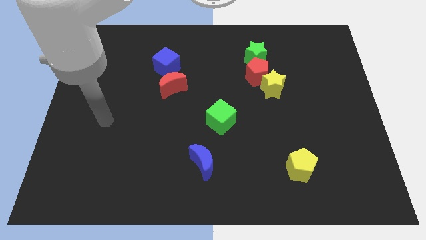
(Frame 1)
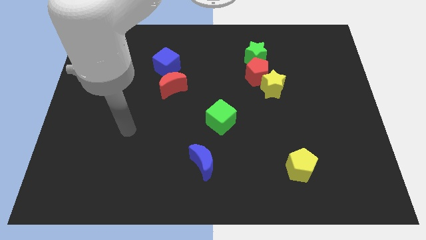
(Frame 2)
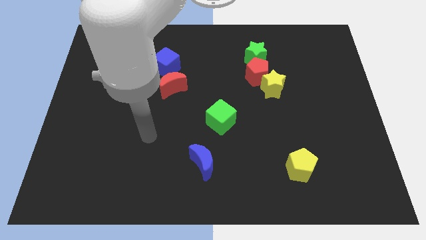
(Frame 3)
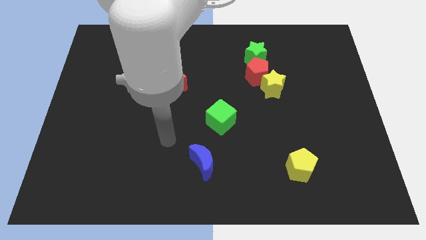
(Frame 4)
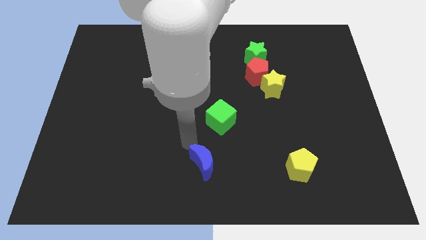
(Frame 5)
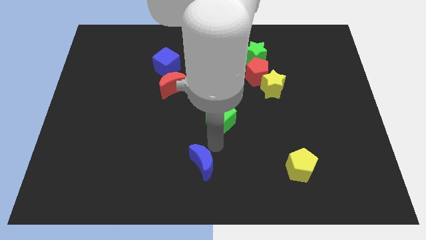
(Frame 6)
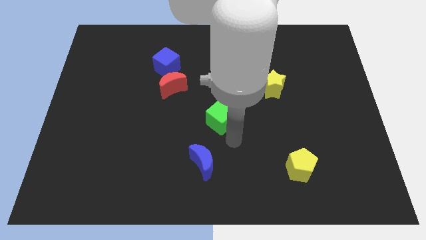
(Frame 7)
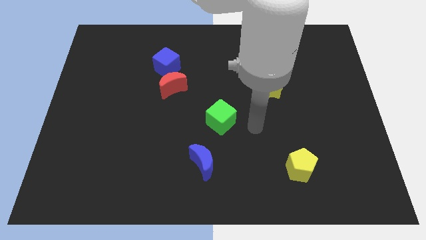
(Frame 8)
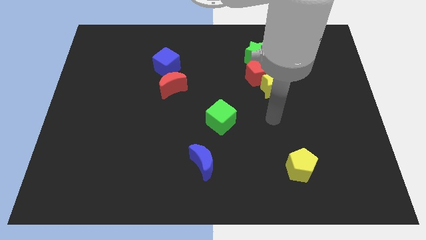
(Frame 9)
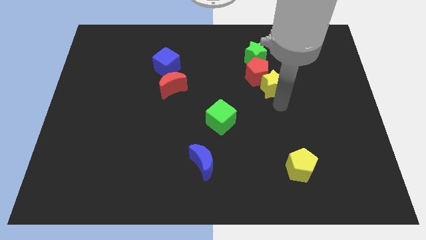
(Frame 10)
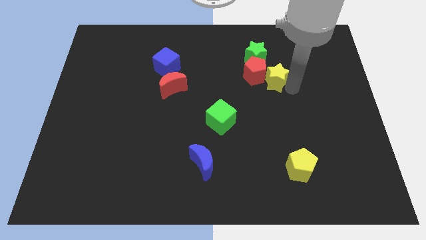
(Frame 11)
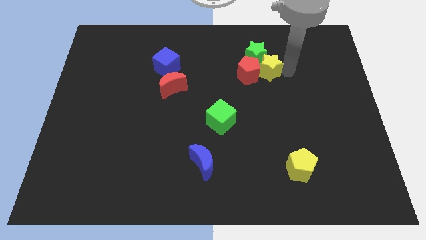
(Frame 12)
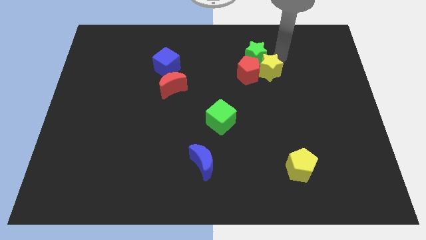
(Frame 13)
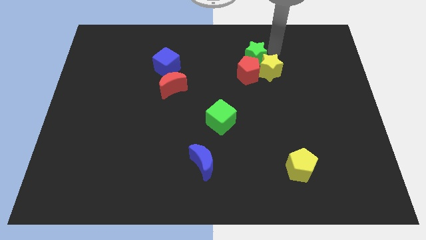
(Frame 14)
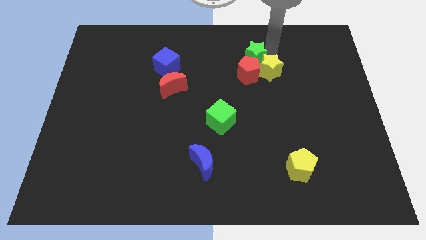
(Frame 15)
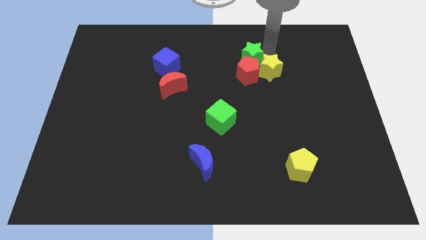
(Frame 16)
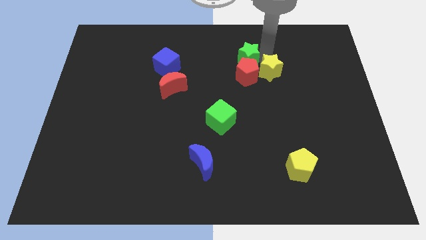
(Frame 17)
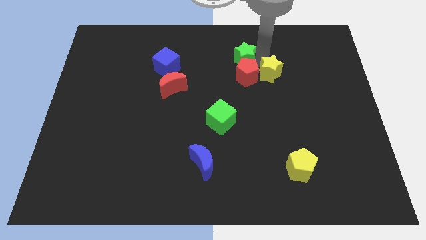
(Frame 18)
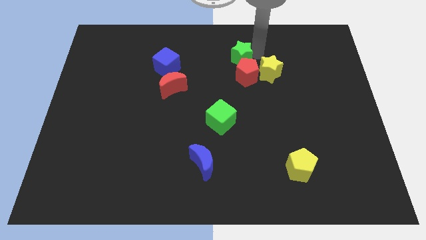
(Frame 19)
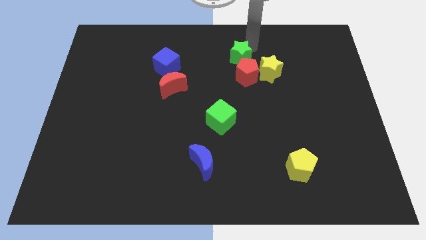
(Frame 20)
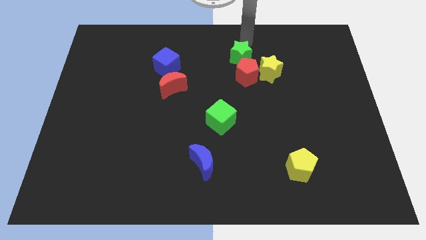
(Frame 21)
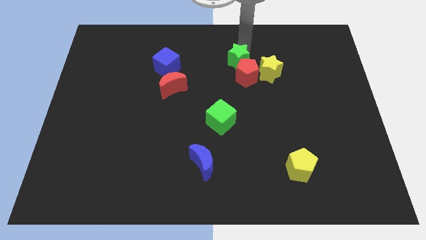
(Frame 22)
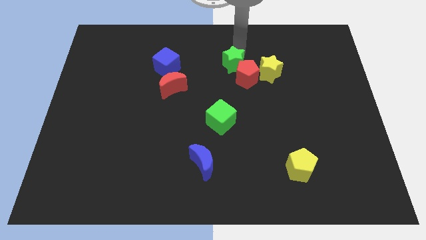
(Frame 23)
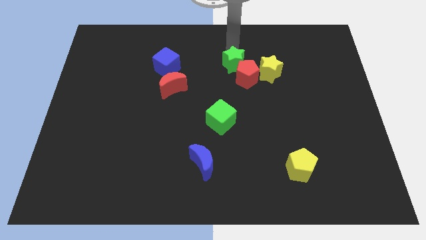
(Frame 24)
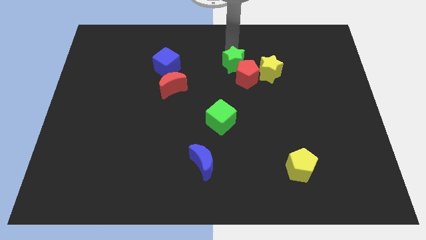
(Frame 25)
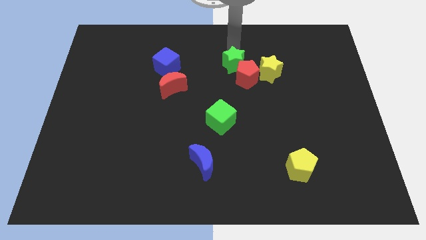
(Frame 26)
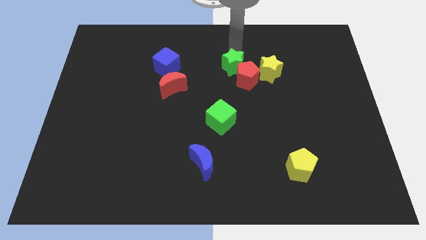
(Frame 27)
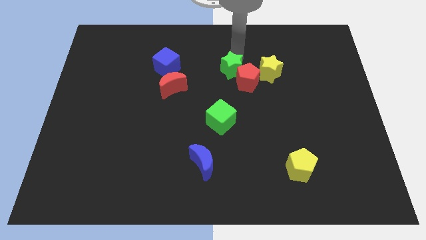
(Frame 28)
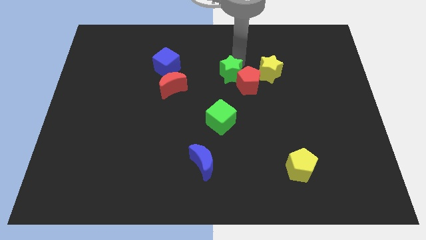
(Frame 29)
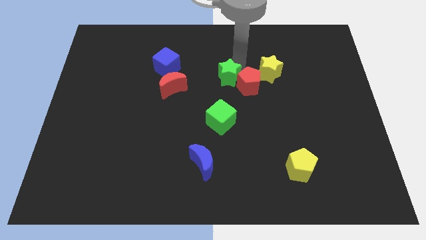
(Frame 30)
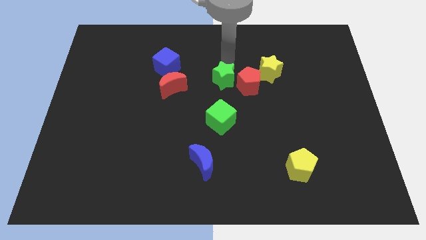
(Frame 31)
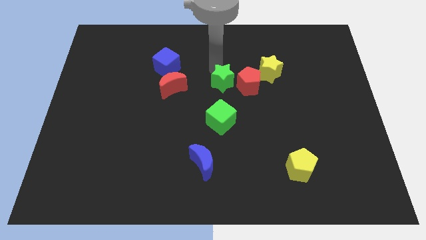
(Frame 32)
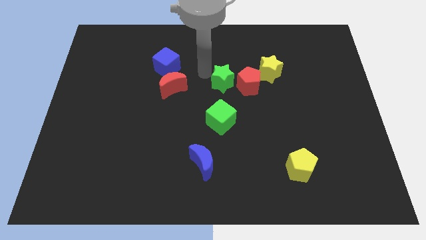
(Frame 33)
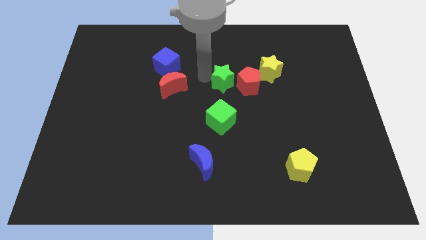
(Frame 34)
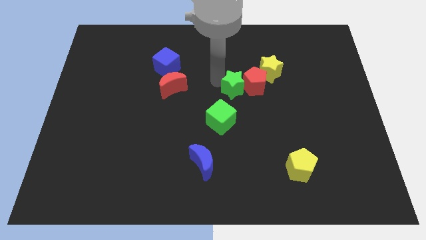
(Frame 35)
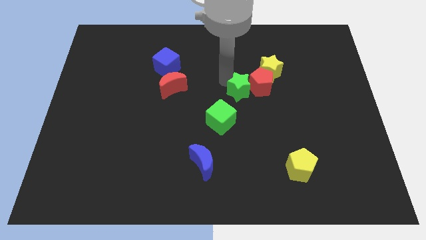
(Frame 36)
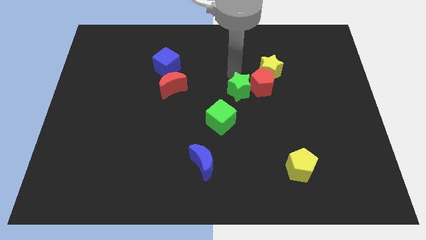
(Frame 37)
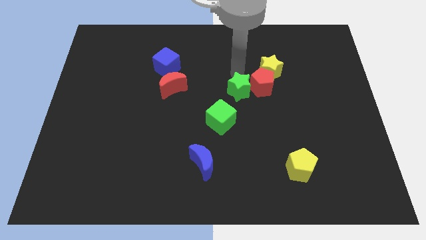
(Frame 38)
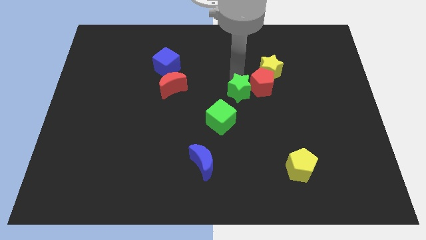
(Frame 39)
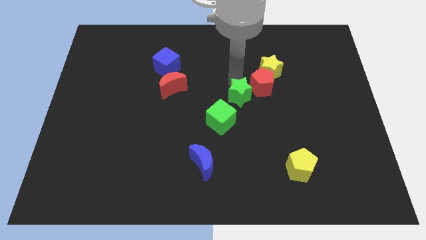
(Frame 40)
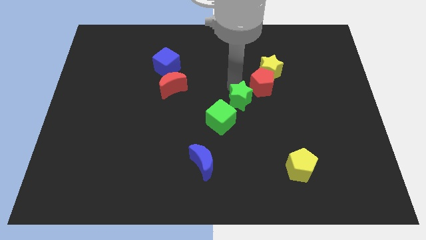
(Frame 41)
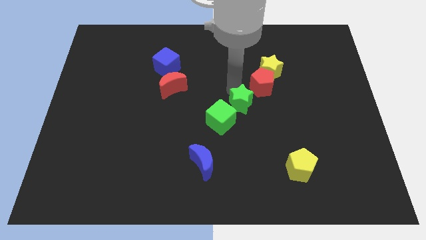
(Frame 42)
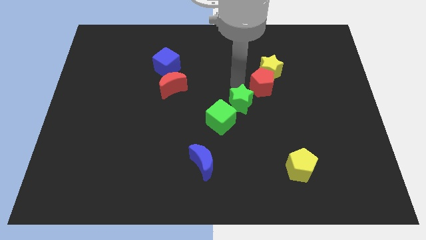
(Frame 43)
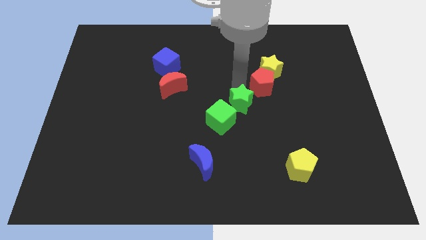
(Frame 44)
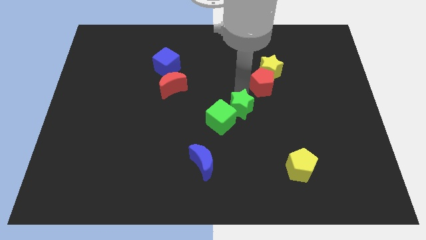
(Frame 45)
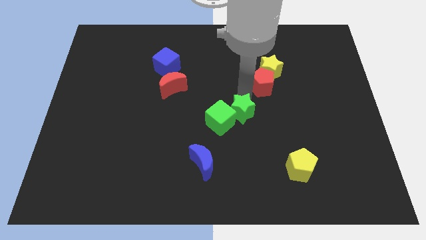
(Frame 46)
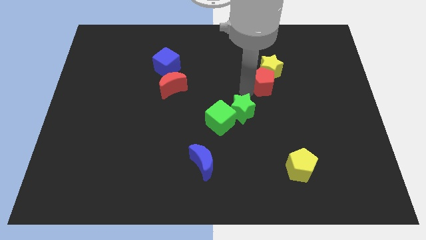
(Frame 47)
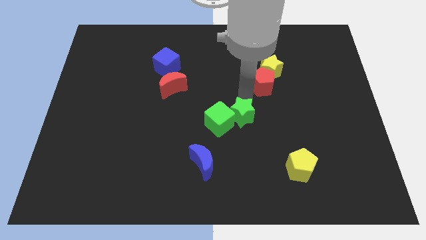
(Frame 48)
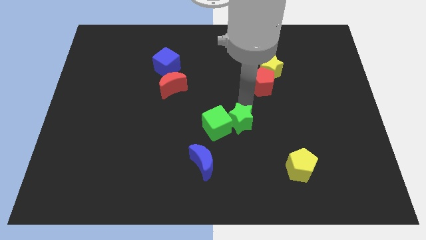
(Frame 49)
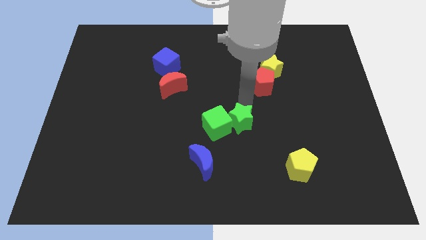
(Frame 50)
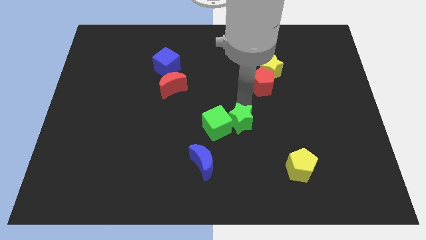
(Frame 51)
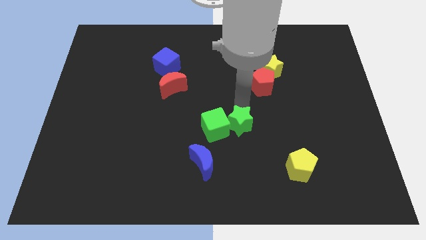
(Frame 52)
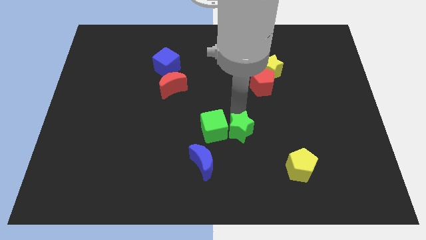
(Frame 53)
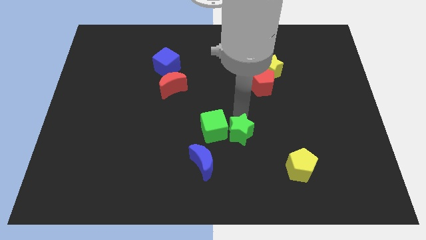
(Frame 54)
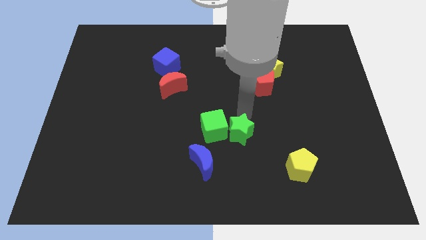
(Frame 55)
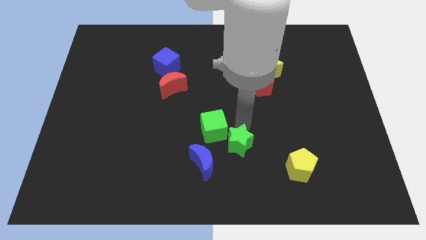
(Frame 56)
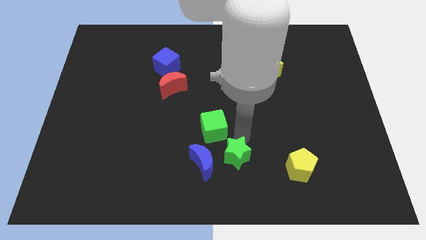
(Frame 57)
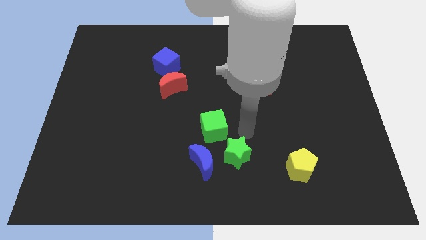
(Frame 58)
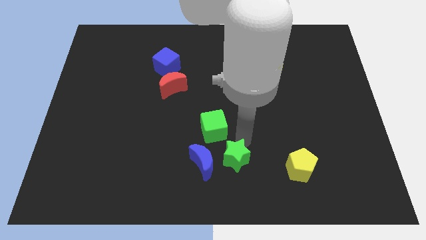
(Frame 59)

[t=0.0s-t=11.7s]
move the green star to the bottom side
